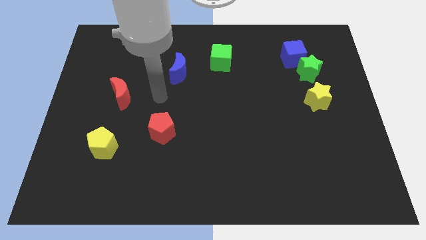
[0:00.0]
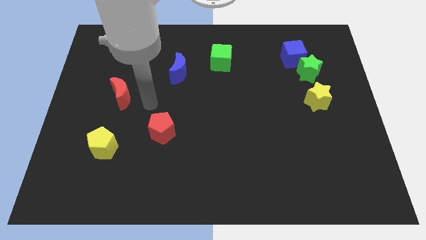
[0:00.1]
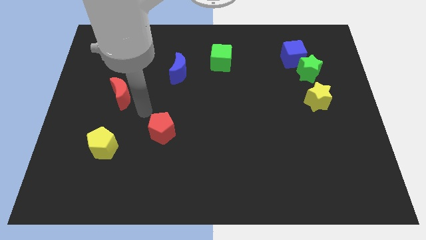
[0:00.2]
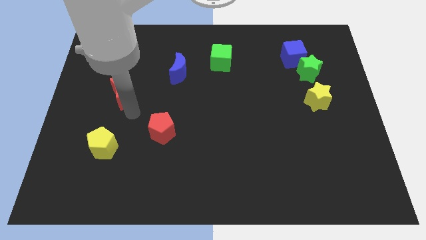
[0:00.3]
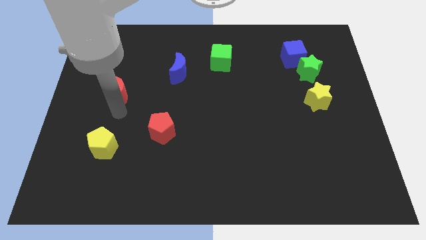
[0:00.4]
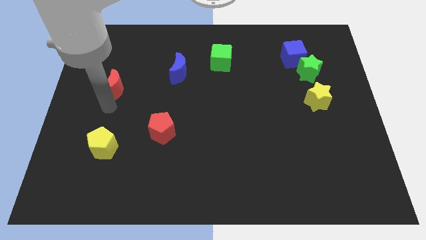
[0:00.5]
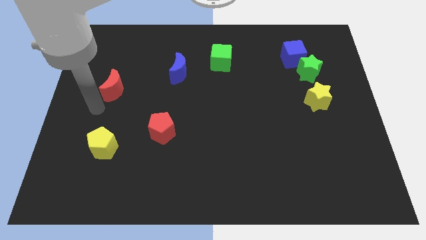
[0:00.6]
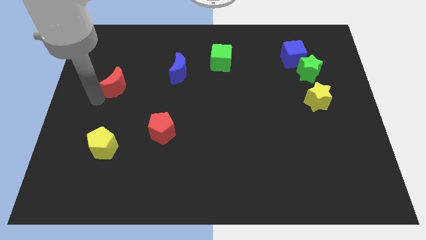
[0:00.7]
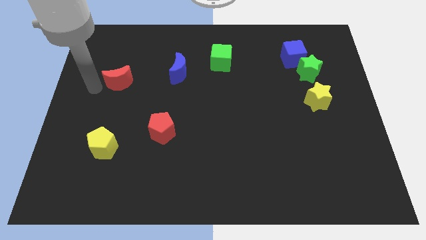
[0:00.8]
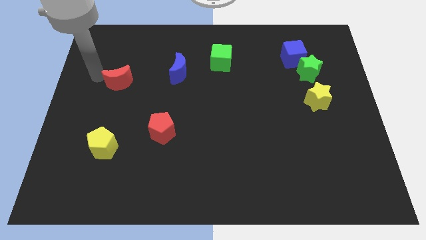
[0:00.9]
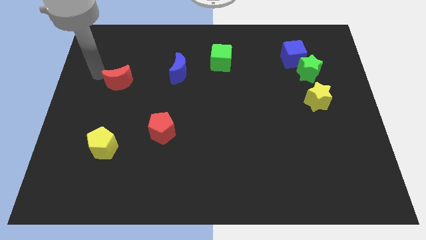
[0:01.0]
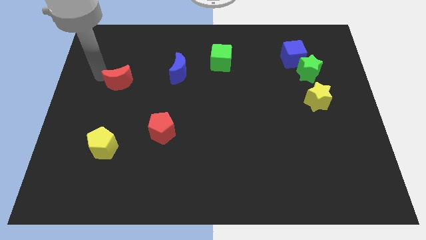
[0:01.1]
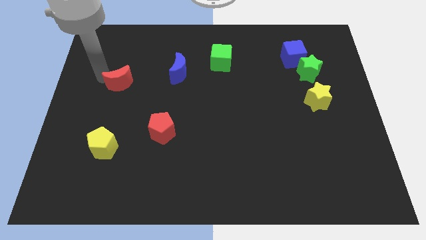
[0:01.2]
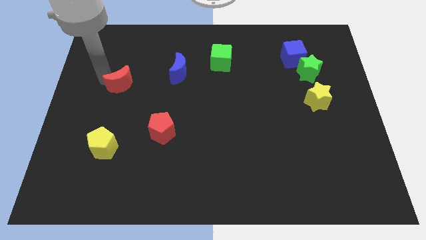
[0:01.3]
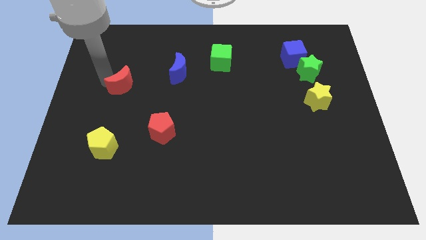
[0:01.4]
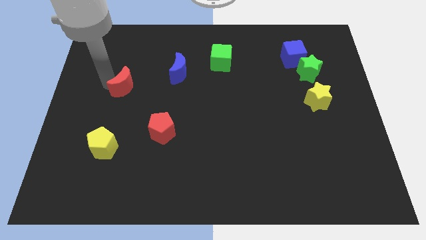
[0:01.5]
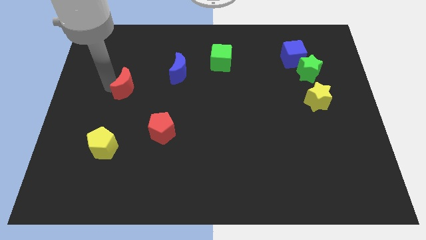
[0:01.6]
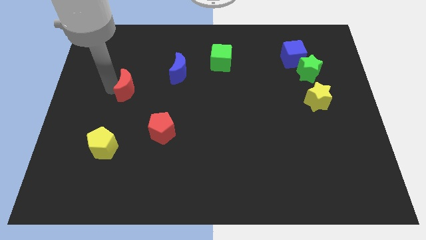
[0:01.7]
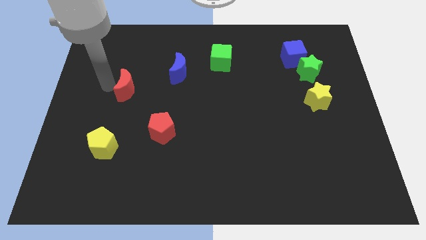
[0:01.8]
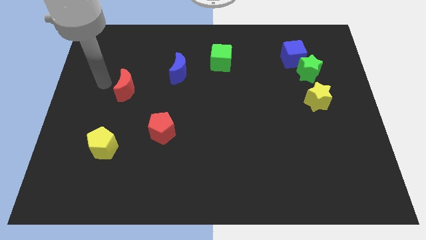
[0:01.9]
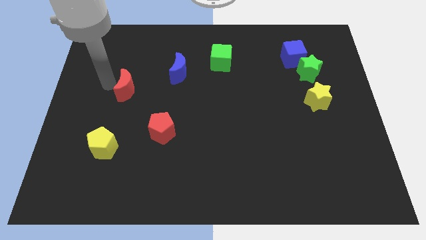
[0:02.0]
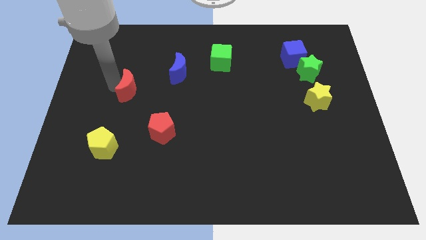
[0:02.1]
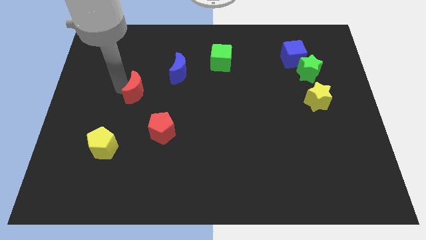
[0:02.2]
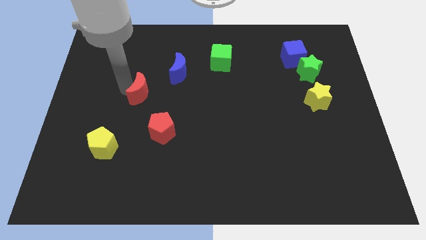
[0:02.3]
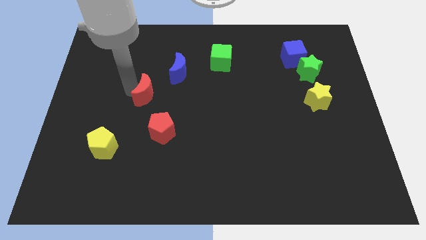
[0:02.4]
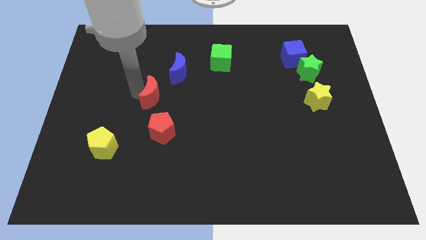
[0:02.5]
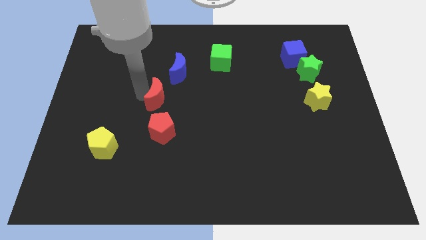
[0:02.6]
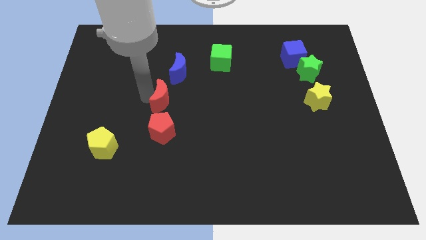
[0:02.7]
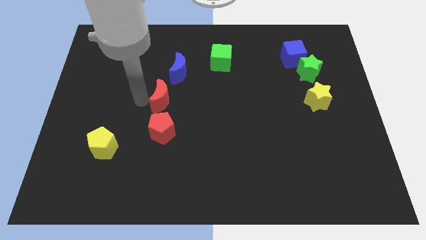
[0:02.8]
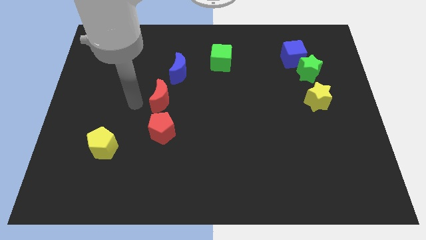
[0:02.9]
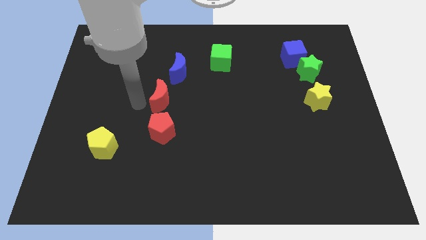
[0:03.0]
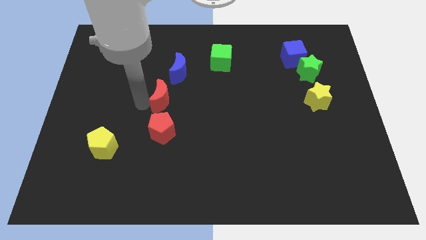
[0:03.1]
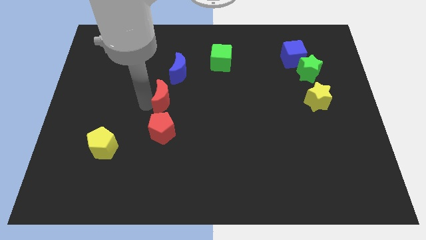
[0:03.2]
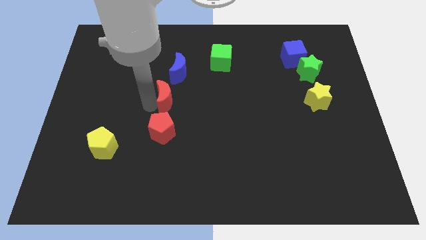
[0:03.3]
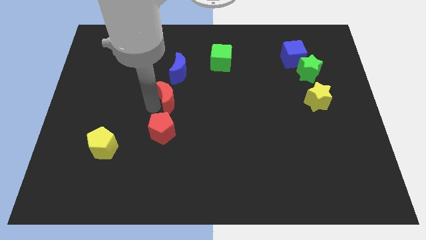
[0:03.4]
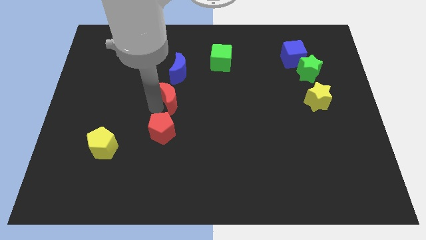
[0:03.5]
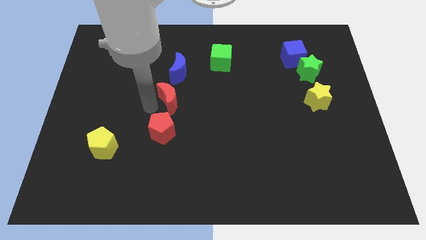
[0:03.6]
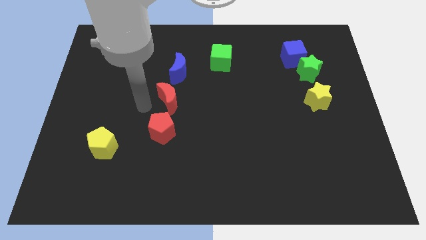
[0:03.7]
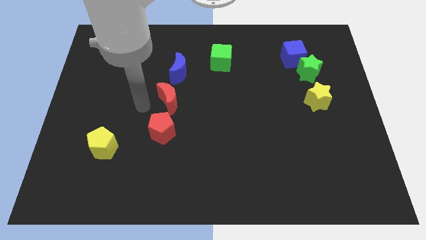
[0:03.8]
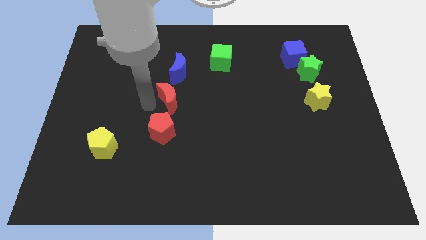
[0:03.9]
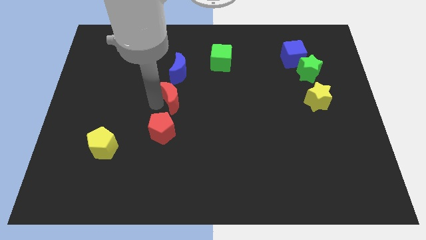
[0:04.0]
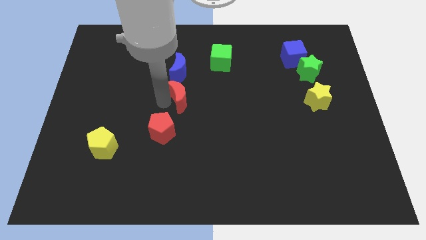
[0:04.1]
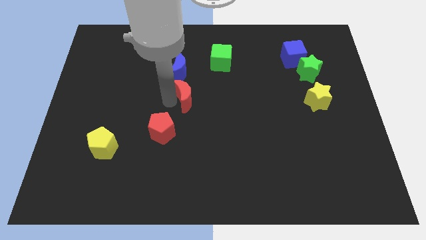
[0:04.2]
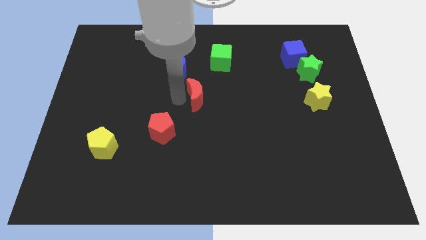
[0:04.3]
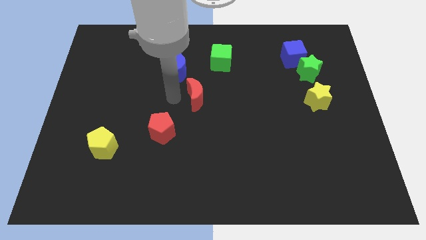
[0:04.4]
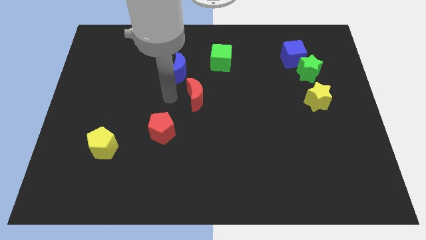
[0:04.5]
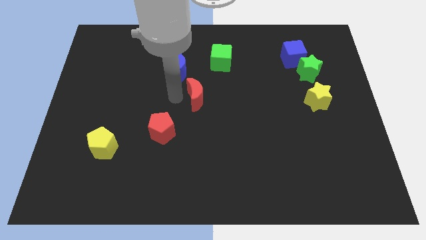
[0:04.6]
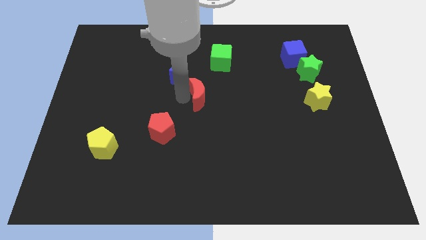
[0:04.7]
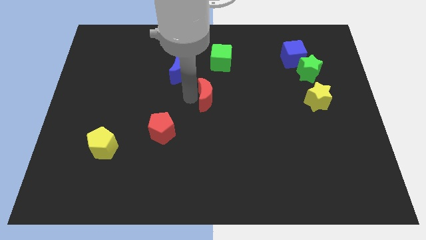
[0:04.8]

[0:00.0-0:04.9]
slide the red moon right

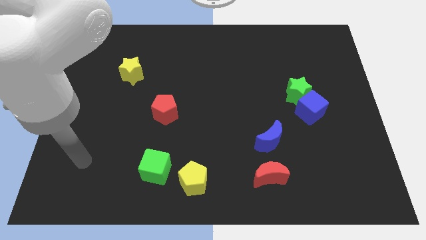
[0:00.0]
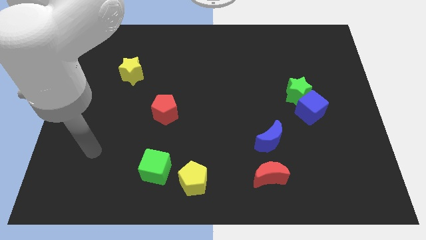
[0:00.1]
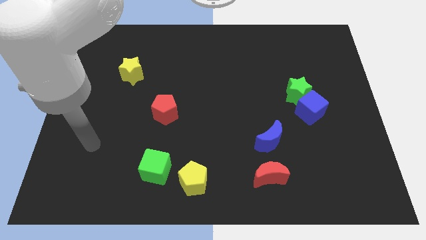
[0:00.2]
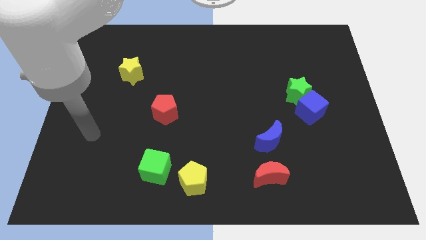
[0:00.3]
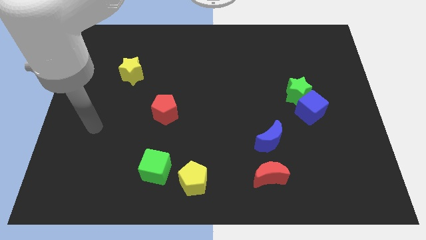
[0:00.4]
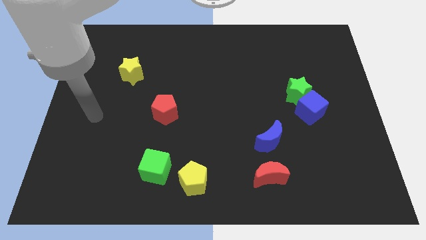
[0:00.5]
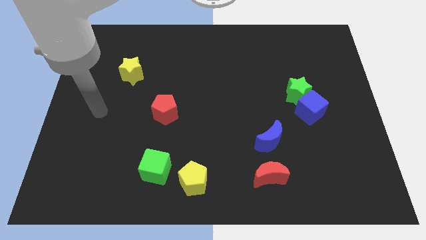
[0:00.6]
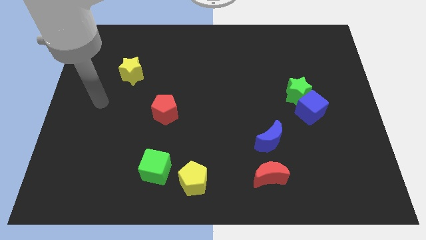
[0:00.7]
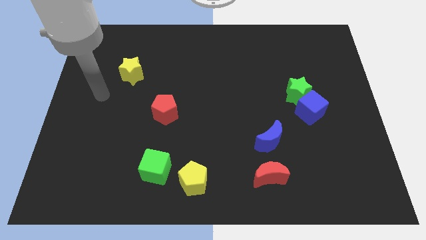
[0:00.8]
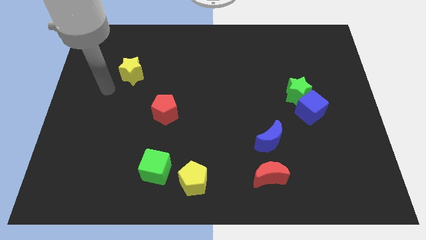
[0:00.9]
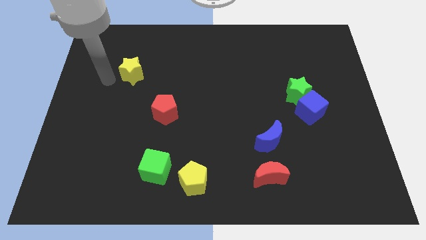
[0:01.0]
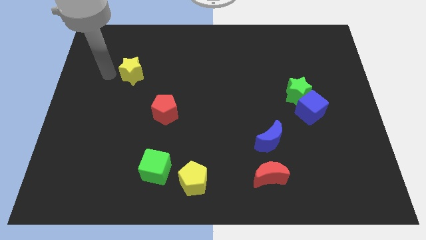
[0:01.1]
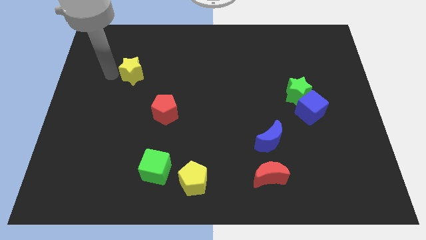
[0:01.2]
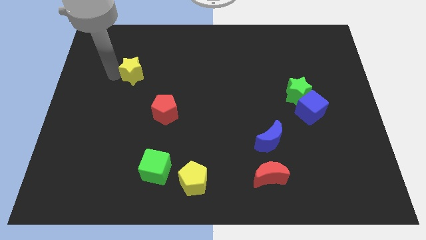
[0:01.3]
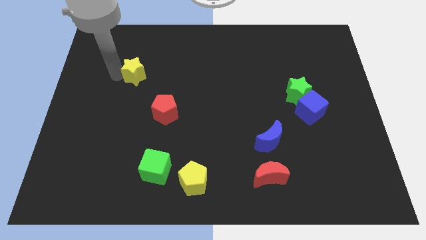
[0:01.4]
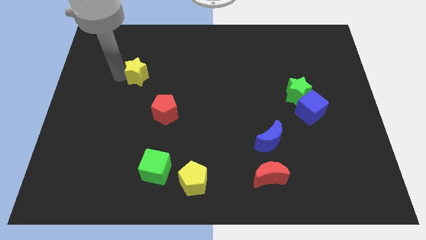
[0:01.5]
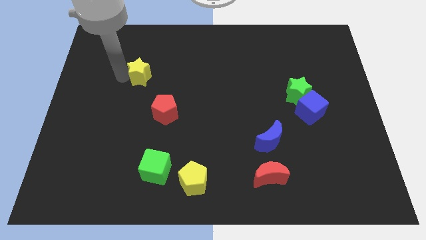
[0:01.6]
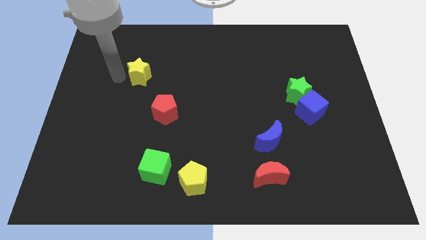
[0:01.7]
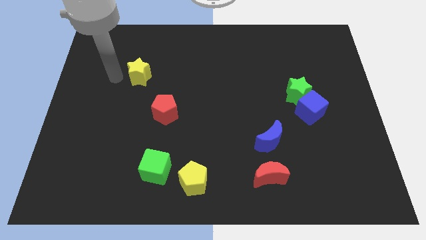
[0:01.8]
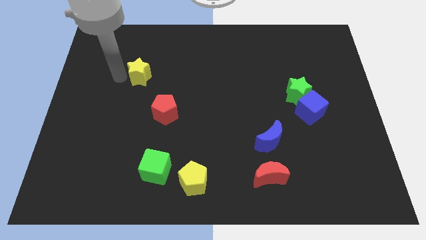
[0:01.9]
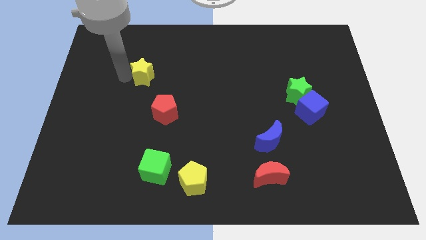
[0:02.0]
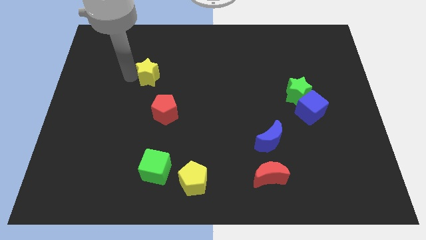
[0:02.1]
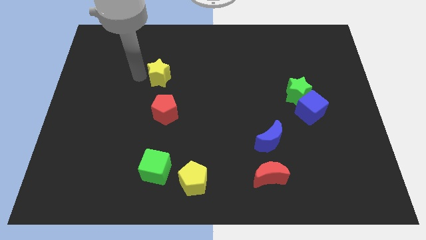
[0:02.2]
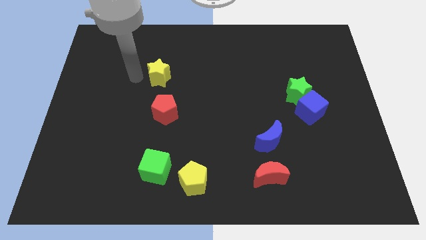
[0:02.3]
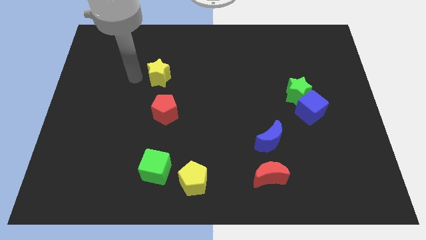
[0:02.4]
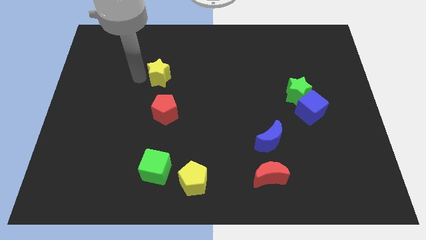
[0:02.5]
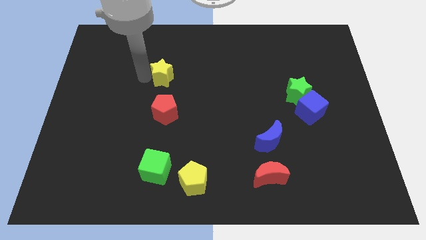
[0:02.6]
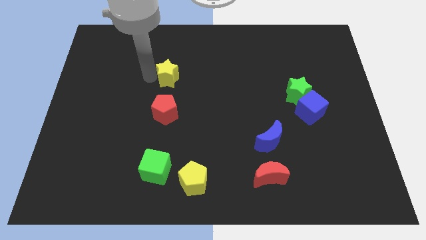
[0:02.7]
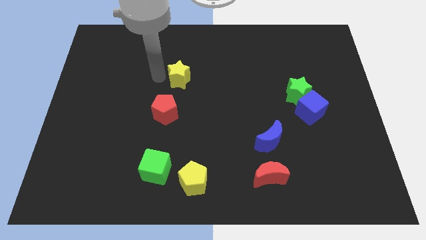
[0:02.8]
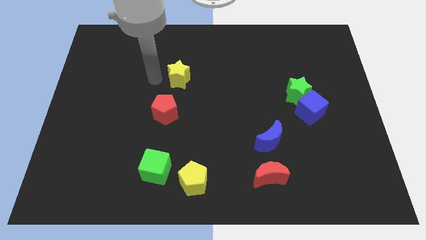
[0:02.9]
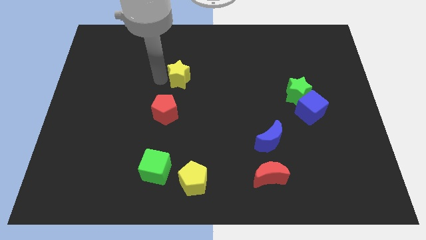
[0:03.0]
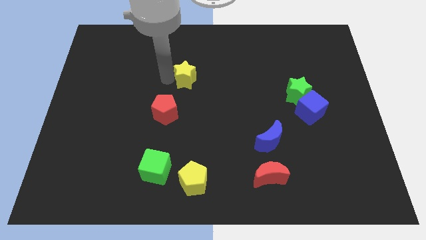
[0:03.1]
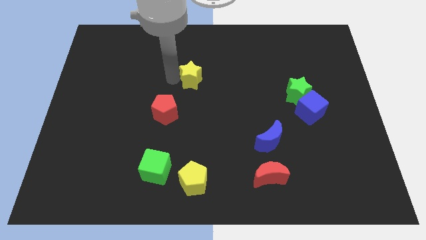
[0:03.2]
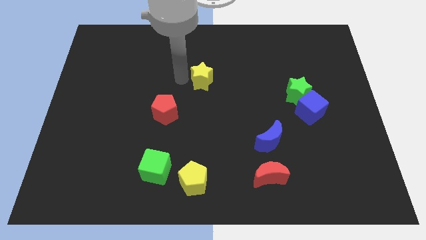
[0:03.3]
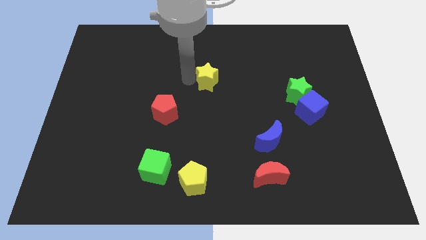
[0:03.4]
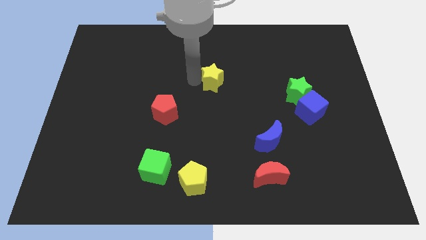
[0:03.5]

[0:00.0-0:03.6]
slide the yellow star right
